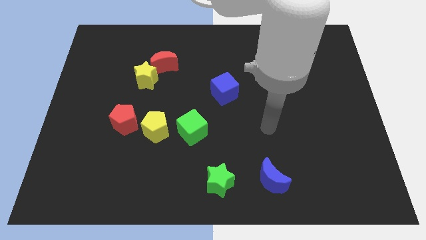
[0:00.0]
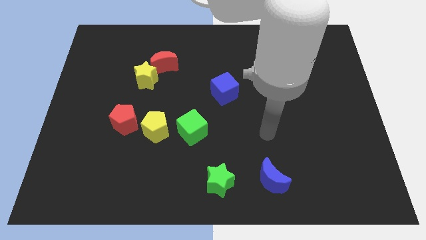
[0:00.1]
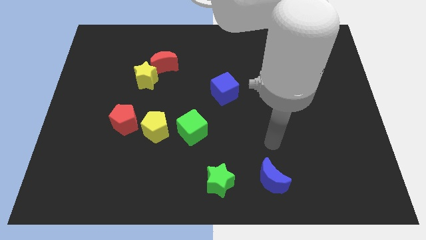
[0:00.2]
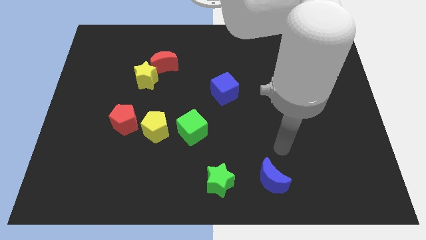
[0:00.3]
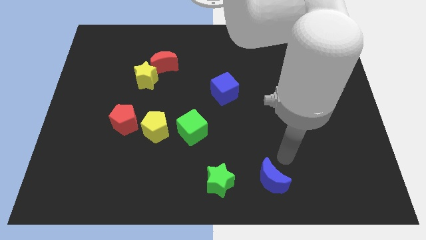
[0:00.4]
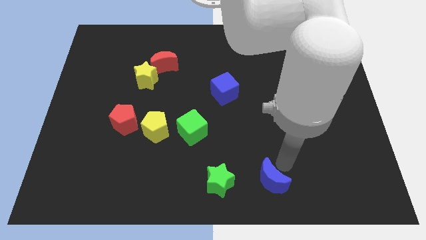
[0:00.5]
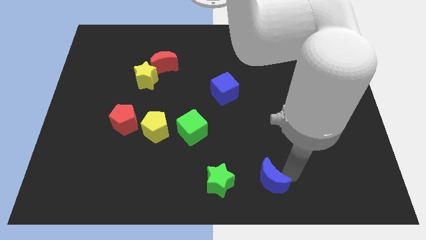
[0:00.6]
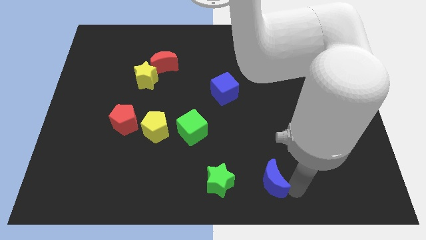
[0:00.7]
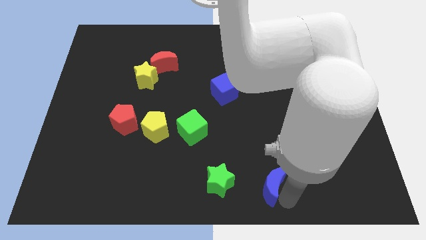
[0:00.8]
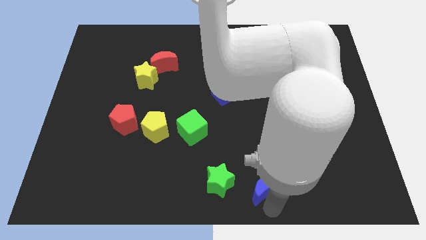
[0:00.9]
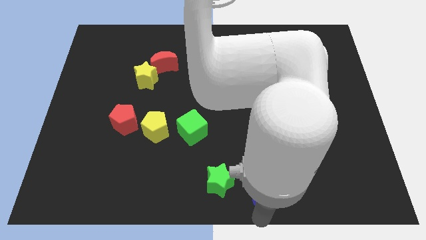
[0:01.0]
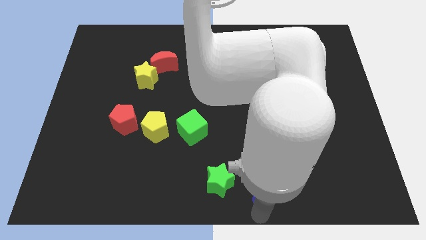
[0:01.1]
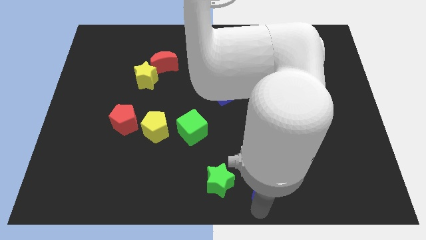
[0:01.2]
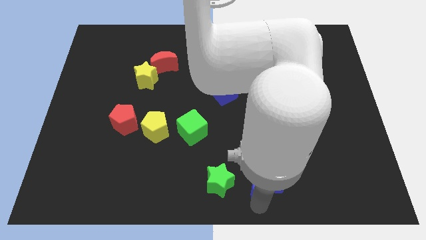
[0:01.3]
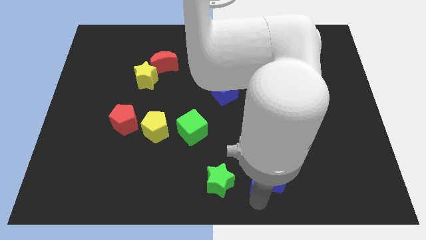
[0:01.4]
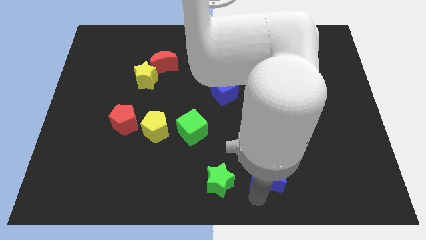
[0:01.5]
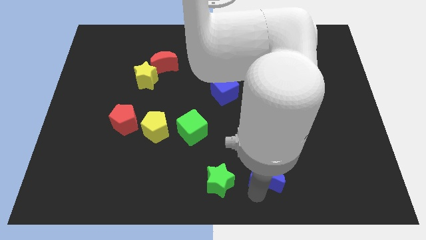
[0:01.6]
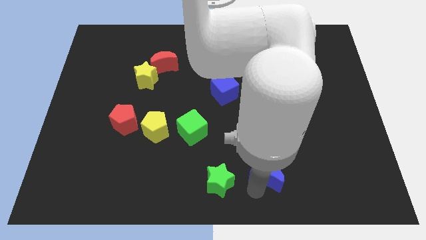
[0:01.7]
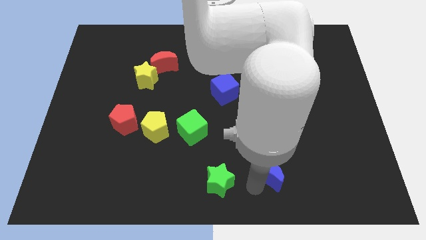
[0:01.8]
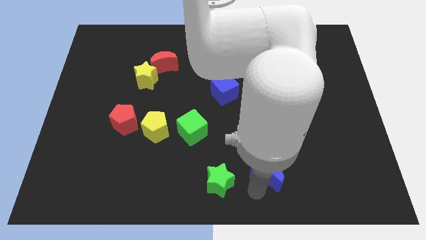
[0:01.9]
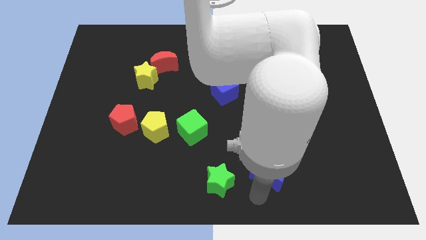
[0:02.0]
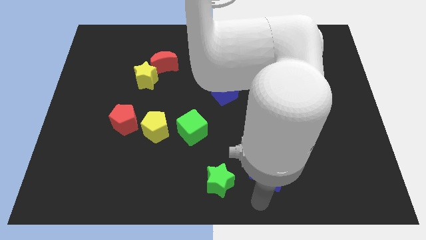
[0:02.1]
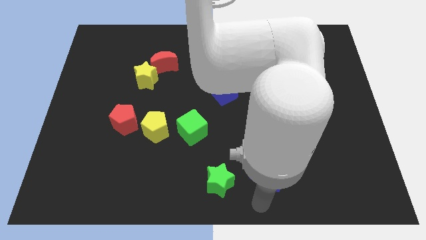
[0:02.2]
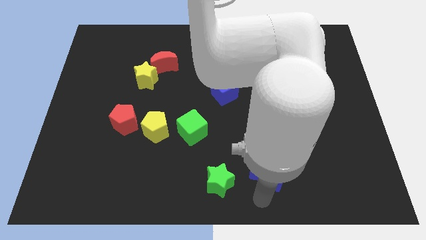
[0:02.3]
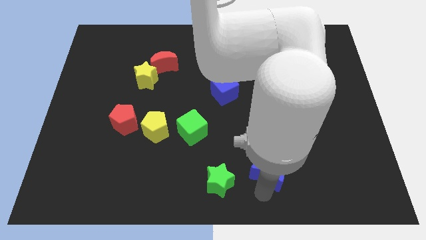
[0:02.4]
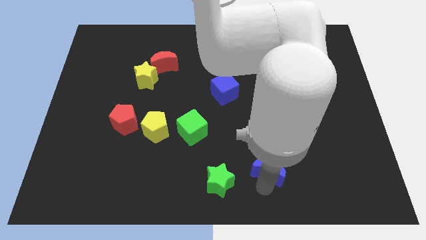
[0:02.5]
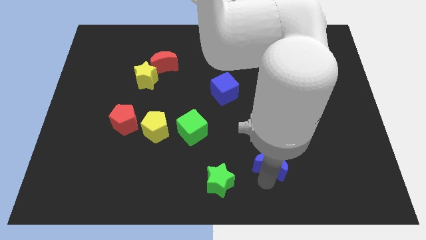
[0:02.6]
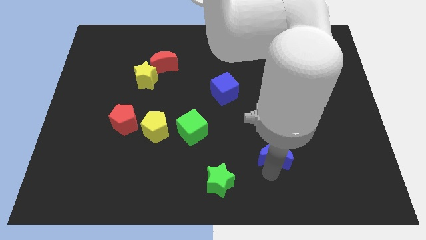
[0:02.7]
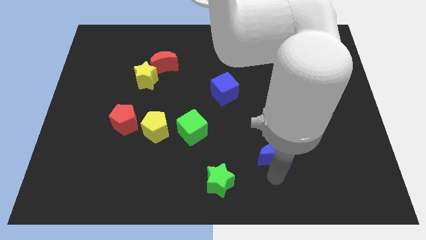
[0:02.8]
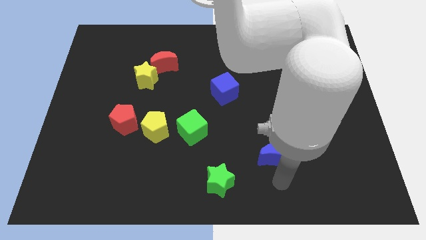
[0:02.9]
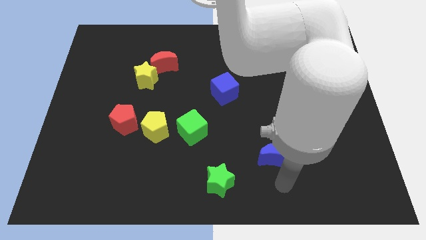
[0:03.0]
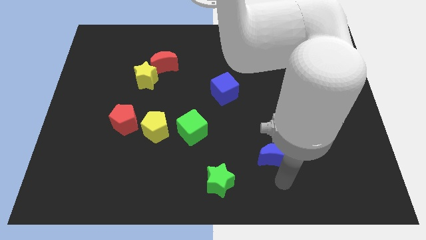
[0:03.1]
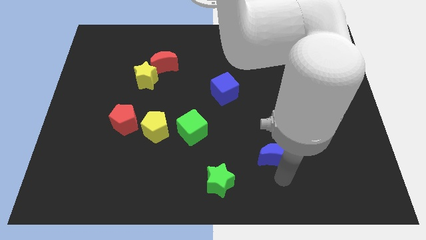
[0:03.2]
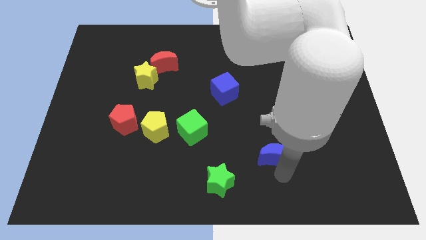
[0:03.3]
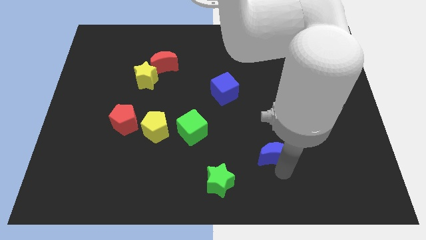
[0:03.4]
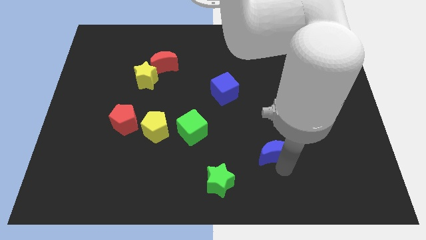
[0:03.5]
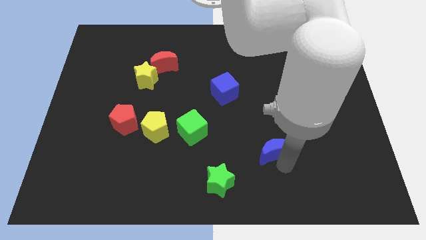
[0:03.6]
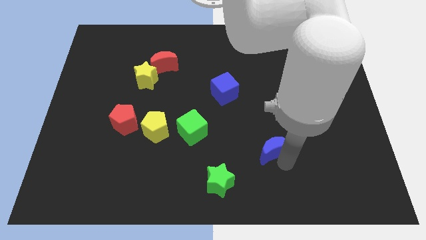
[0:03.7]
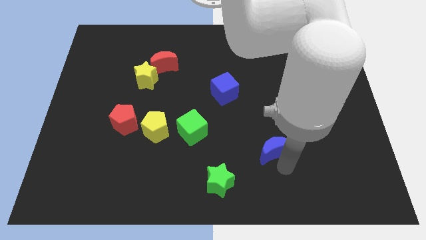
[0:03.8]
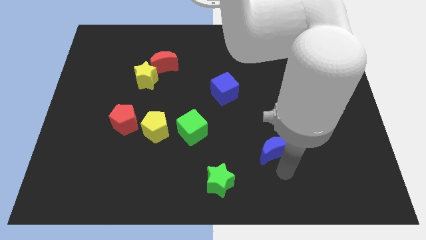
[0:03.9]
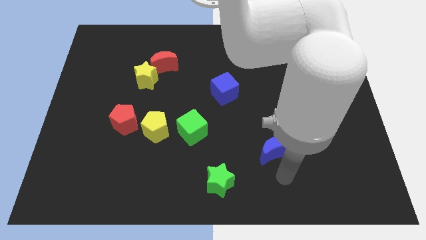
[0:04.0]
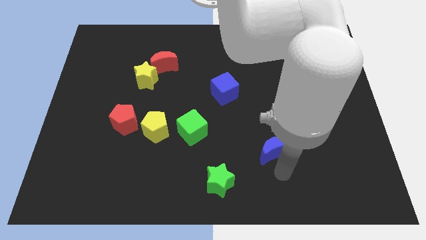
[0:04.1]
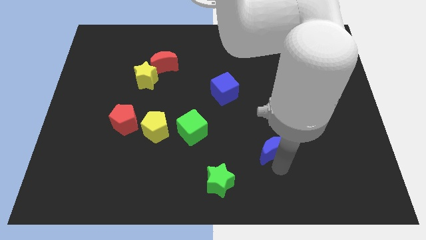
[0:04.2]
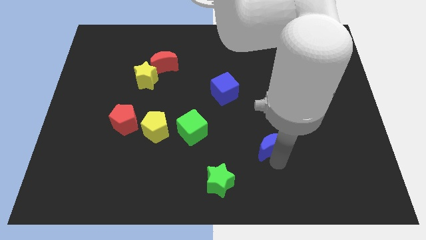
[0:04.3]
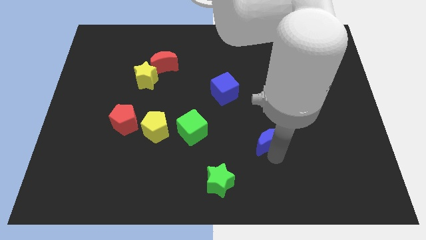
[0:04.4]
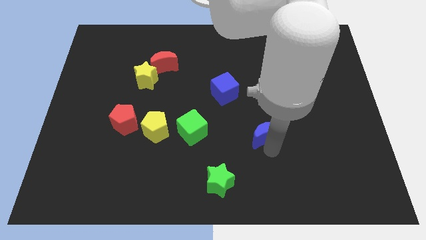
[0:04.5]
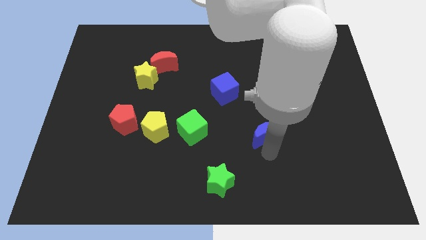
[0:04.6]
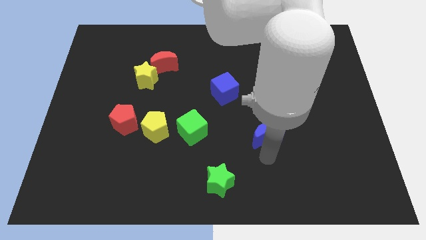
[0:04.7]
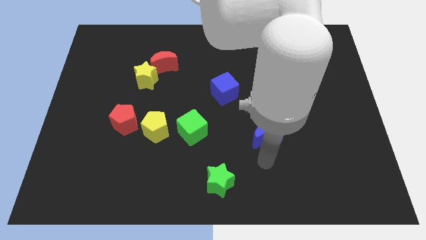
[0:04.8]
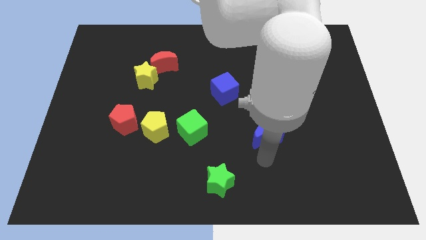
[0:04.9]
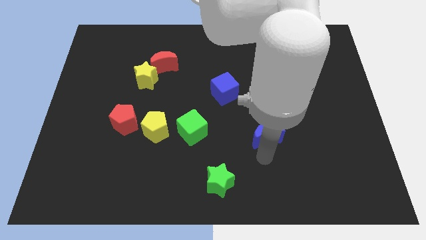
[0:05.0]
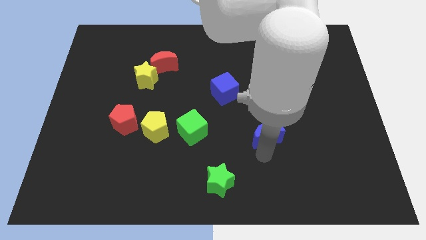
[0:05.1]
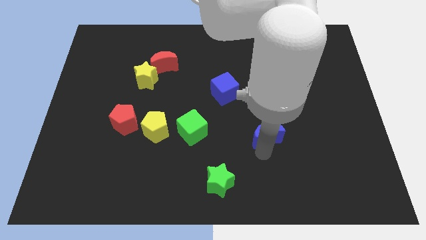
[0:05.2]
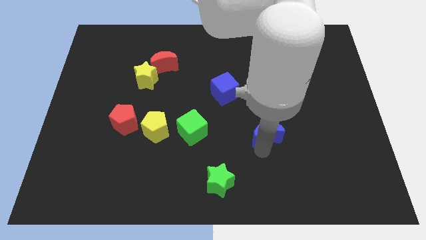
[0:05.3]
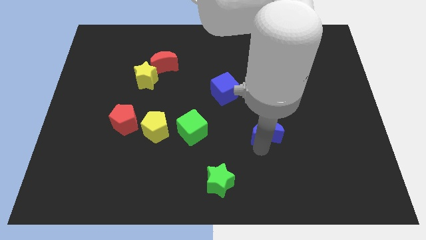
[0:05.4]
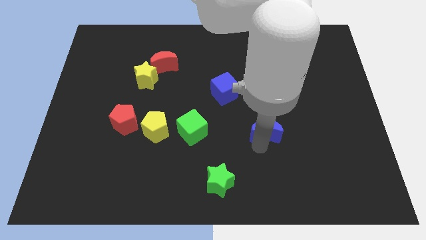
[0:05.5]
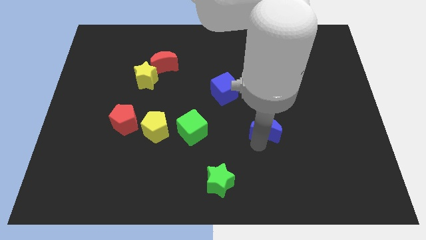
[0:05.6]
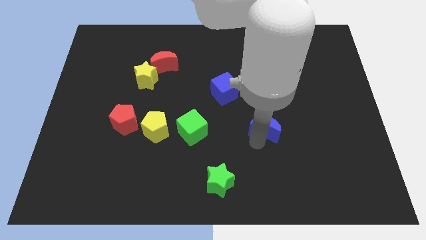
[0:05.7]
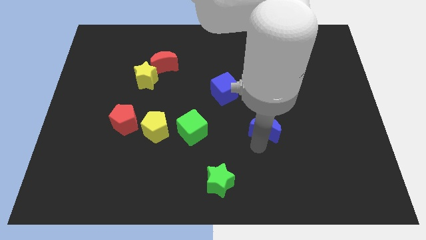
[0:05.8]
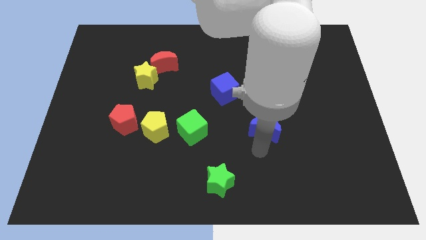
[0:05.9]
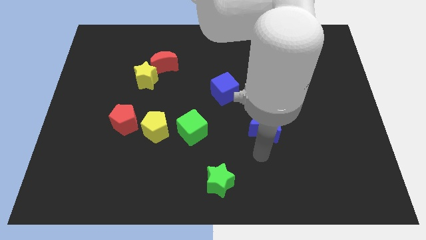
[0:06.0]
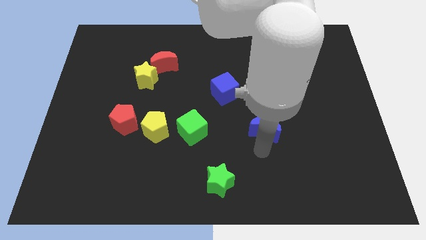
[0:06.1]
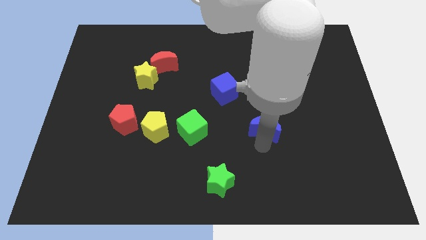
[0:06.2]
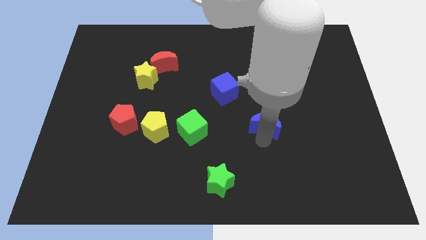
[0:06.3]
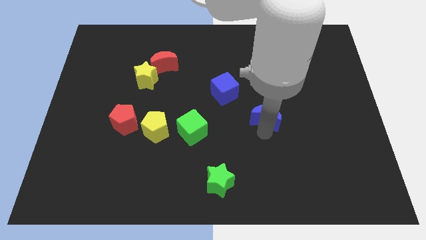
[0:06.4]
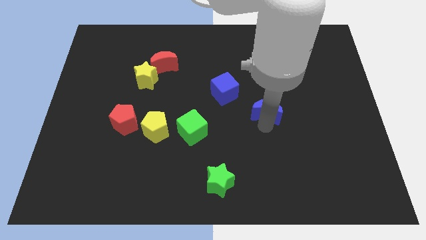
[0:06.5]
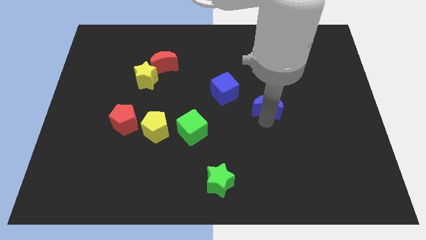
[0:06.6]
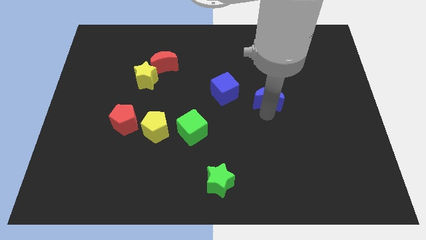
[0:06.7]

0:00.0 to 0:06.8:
move the blue moon upwards

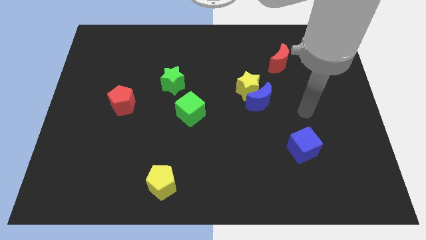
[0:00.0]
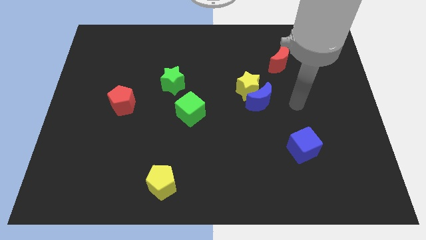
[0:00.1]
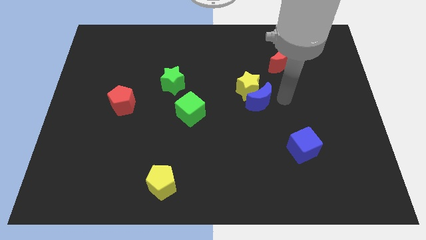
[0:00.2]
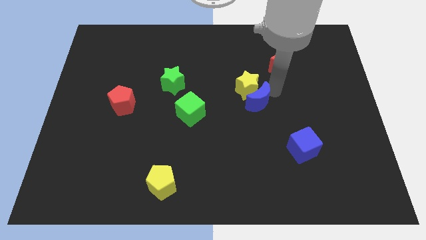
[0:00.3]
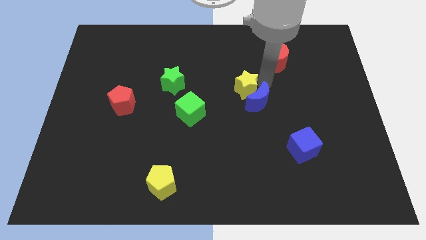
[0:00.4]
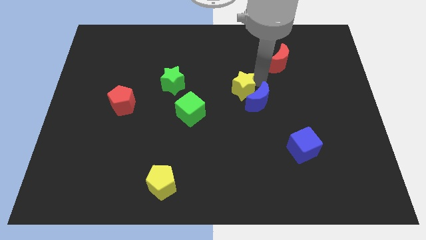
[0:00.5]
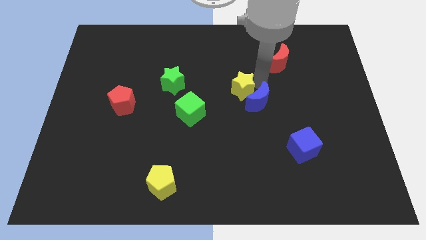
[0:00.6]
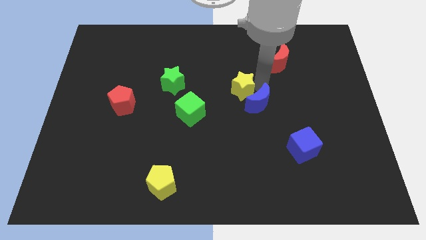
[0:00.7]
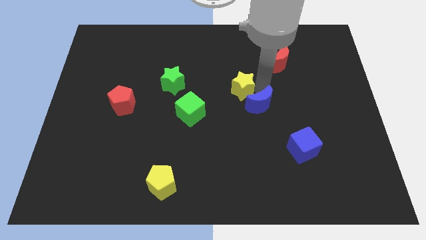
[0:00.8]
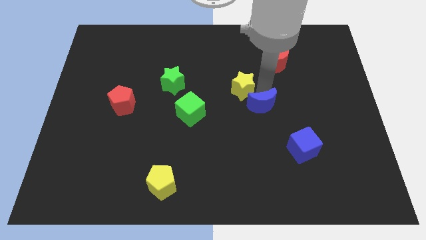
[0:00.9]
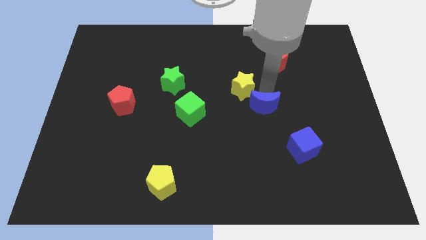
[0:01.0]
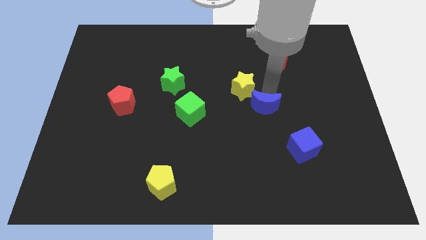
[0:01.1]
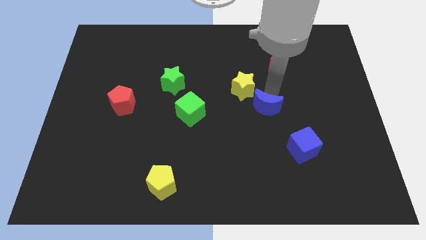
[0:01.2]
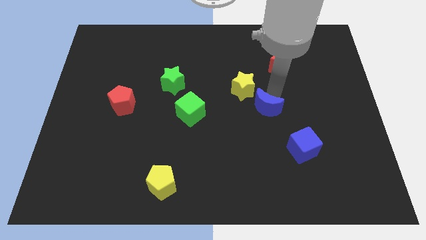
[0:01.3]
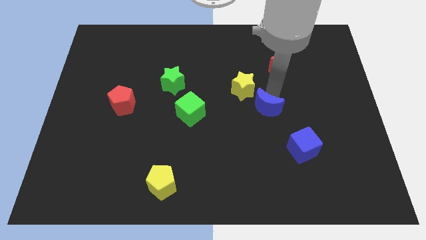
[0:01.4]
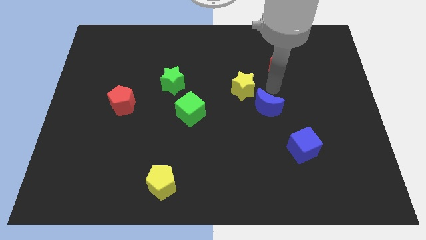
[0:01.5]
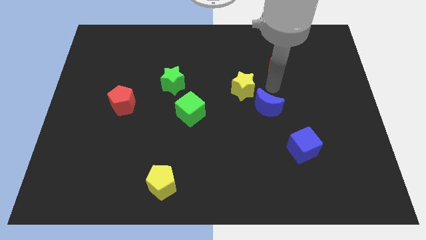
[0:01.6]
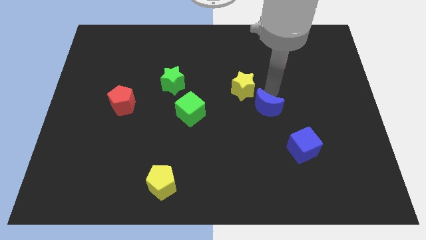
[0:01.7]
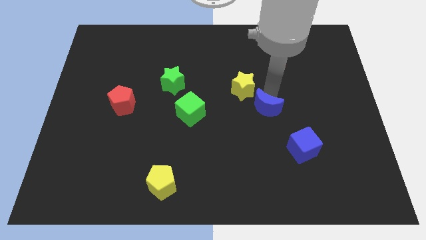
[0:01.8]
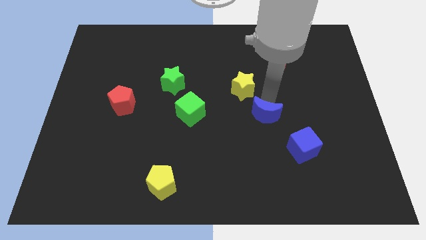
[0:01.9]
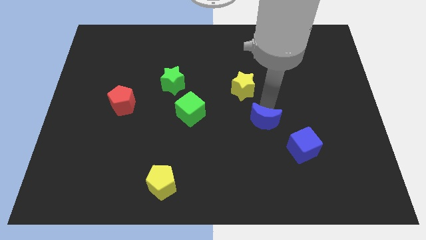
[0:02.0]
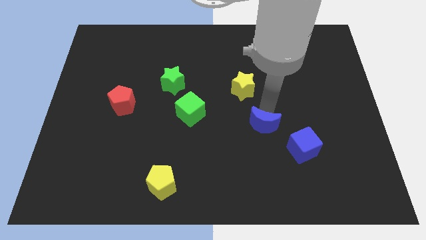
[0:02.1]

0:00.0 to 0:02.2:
slightly push the blue moon downwards
